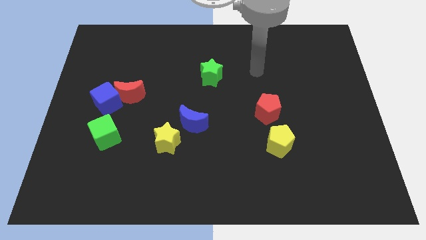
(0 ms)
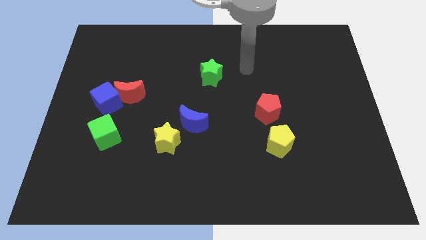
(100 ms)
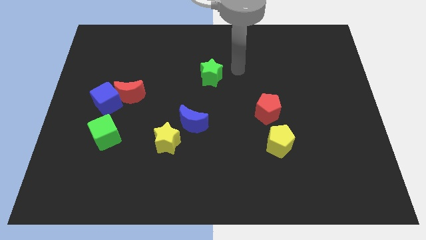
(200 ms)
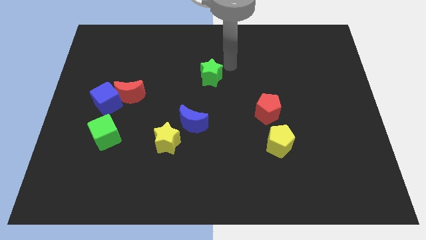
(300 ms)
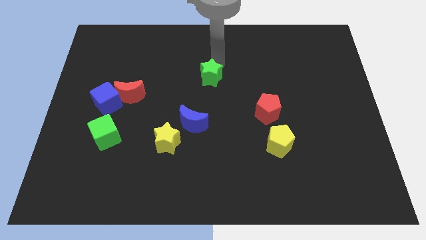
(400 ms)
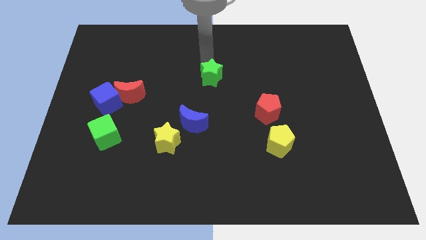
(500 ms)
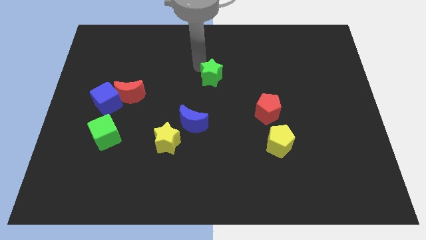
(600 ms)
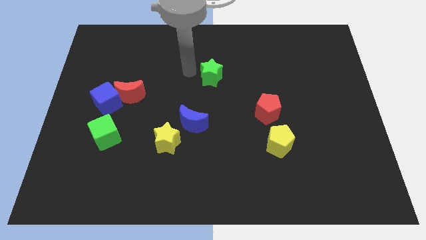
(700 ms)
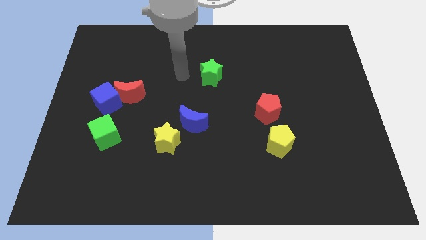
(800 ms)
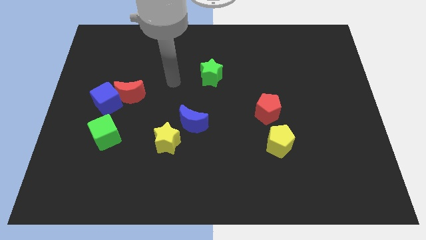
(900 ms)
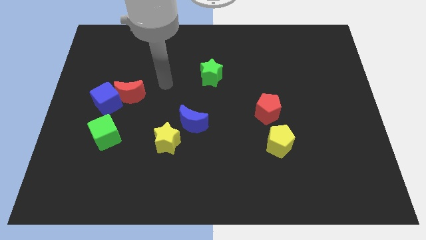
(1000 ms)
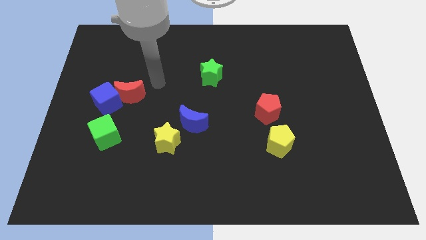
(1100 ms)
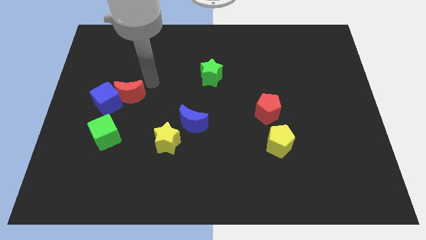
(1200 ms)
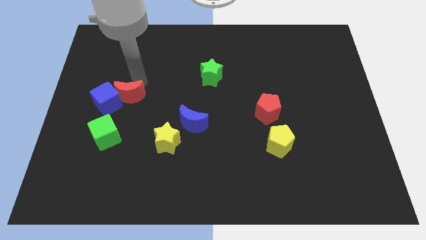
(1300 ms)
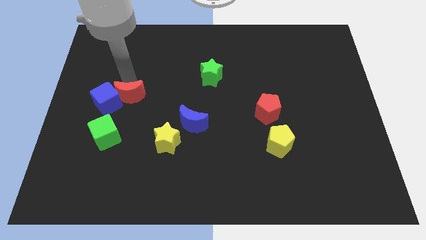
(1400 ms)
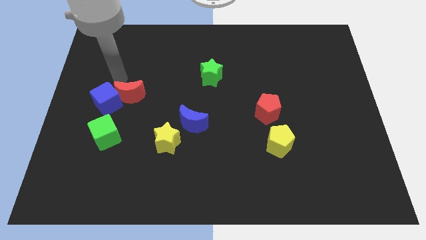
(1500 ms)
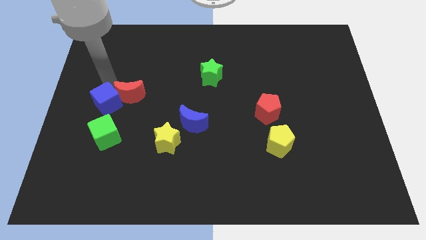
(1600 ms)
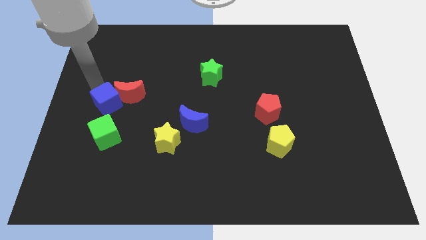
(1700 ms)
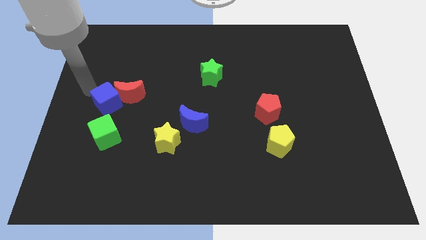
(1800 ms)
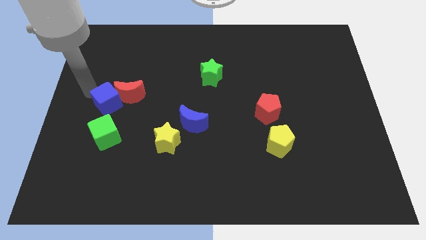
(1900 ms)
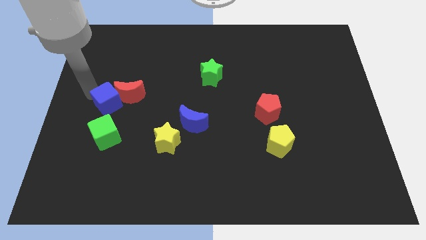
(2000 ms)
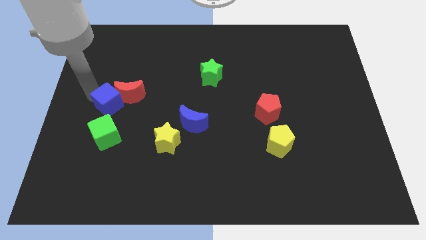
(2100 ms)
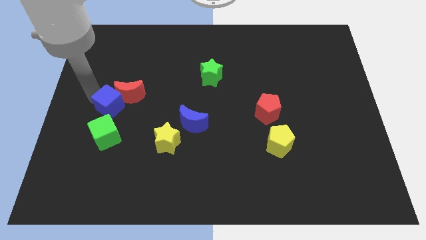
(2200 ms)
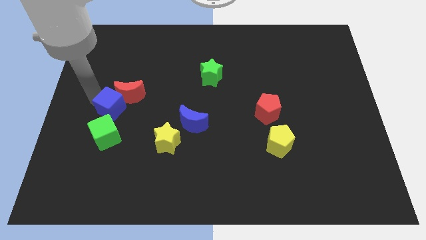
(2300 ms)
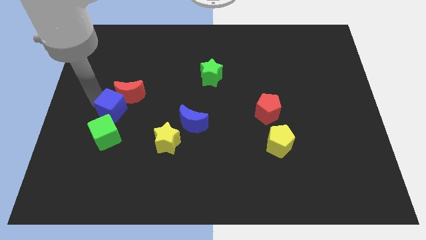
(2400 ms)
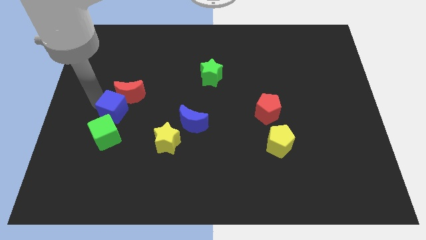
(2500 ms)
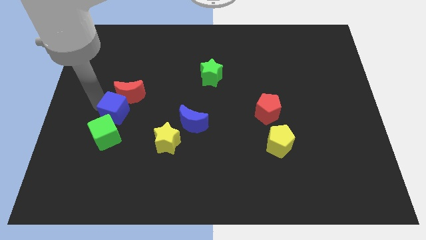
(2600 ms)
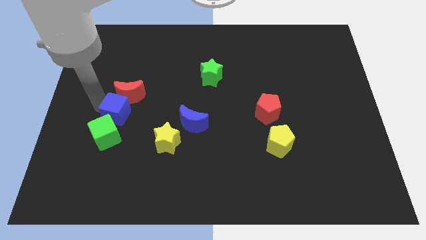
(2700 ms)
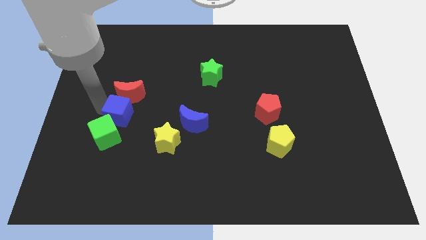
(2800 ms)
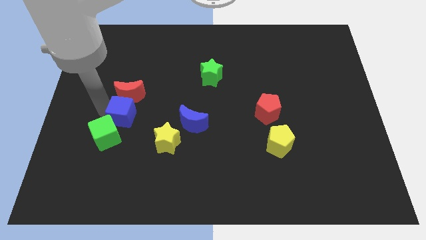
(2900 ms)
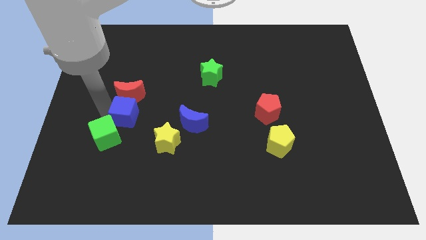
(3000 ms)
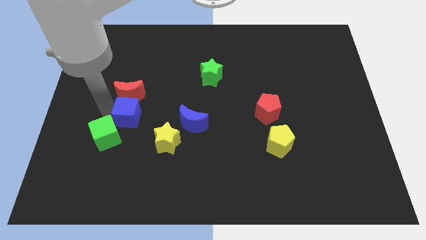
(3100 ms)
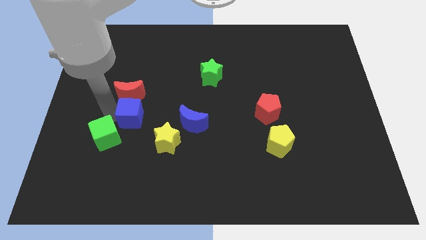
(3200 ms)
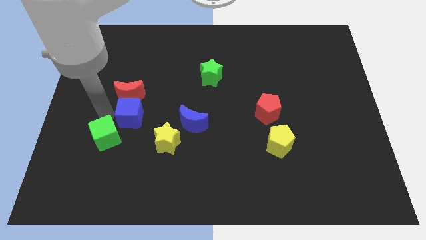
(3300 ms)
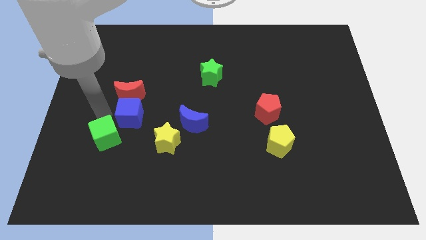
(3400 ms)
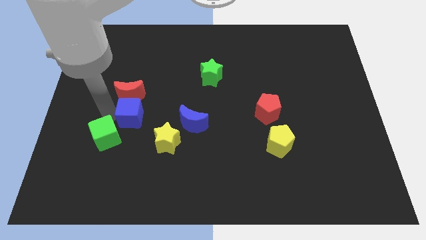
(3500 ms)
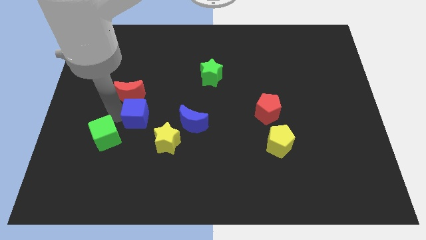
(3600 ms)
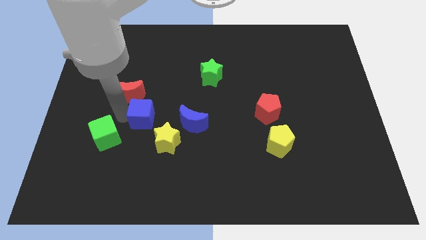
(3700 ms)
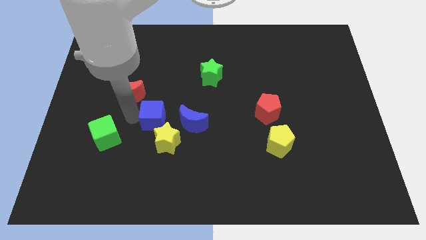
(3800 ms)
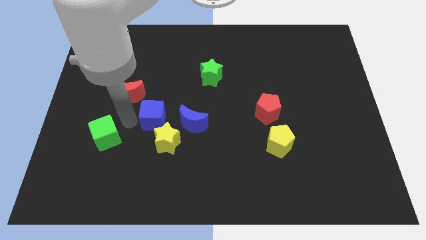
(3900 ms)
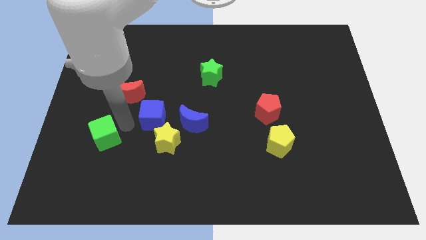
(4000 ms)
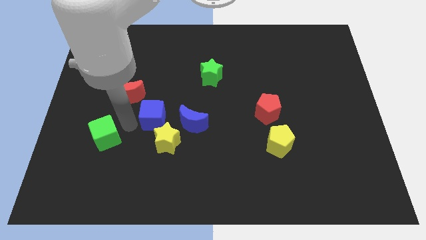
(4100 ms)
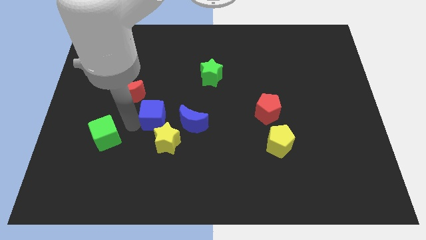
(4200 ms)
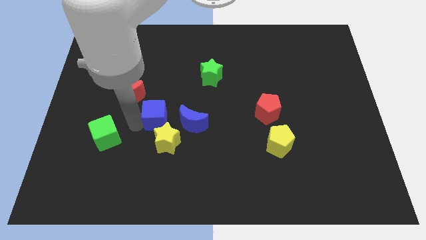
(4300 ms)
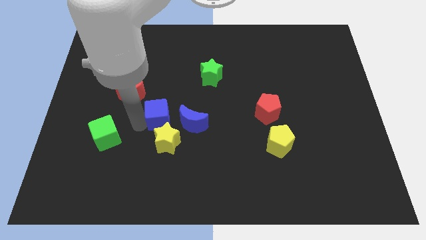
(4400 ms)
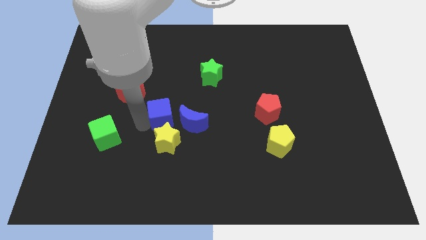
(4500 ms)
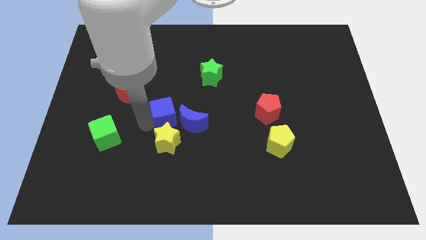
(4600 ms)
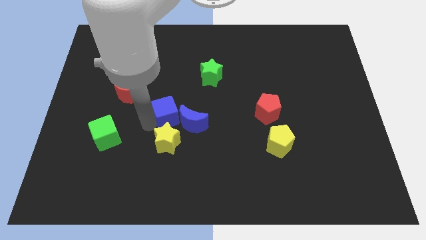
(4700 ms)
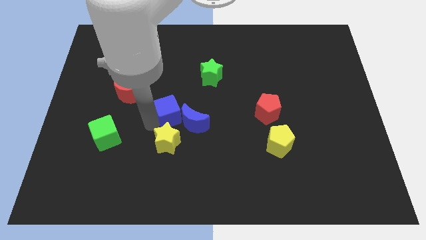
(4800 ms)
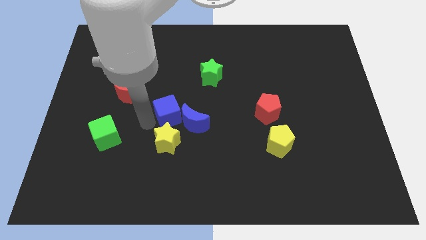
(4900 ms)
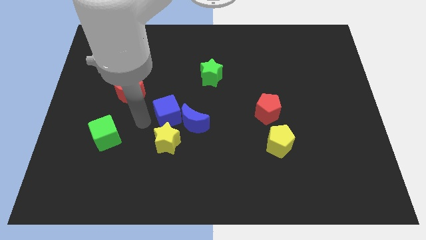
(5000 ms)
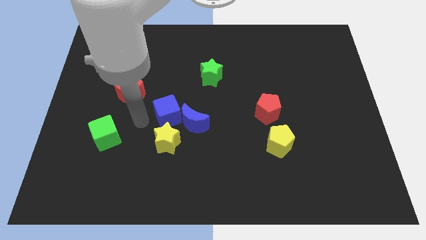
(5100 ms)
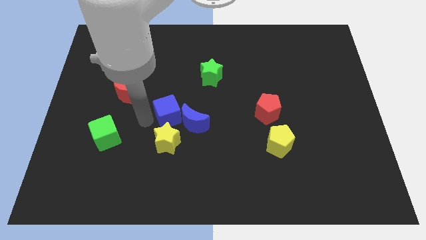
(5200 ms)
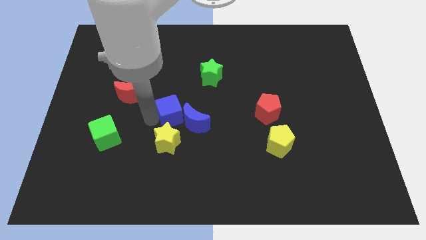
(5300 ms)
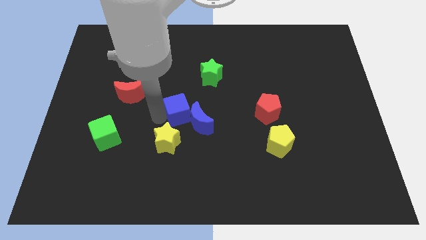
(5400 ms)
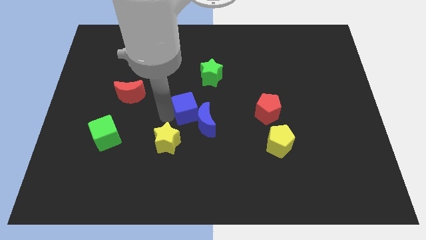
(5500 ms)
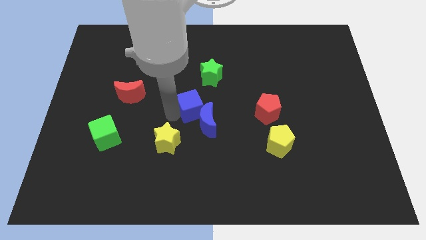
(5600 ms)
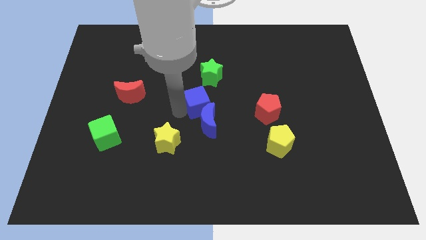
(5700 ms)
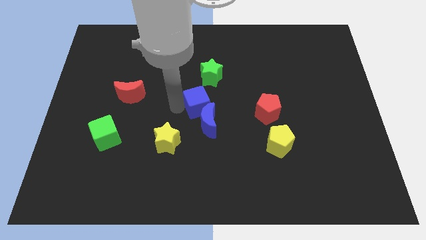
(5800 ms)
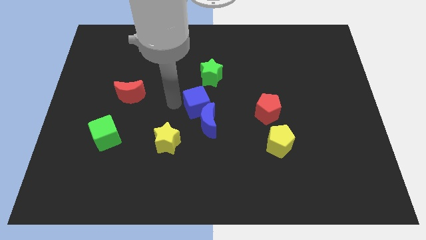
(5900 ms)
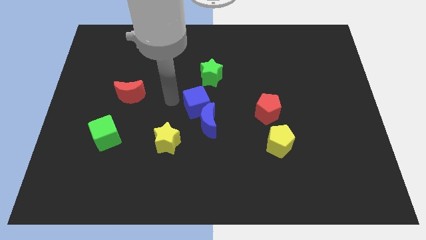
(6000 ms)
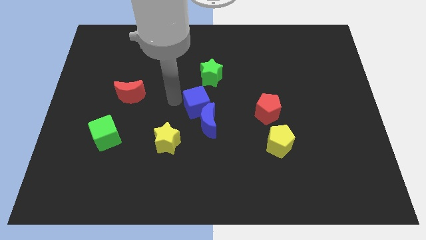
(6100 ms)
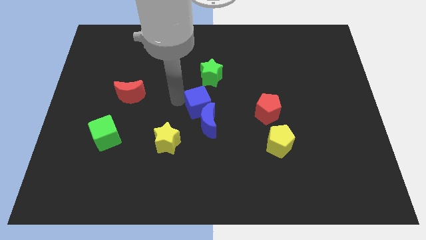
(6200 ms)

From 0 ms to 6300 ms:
move the blue cube to the left side of the red pentagon
